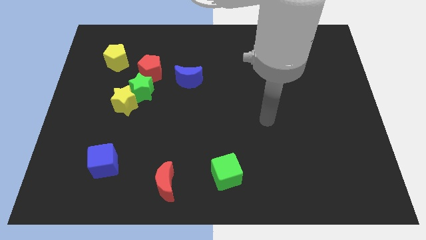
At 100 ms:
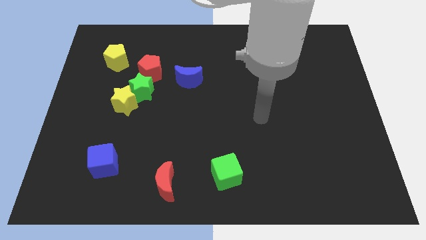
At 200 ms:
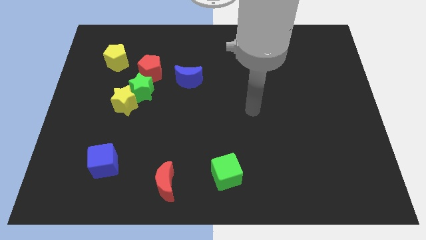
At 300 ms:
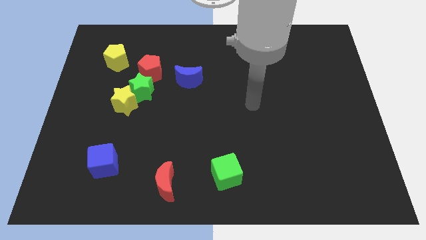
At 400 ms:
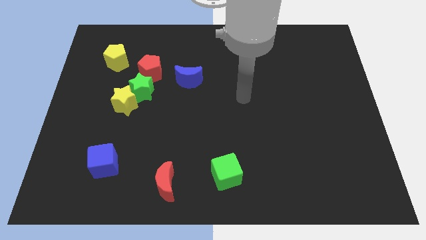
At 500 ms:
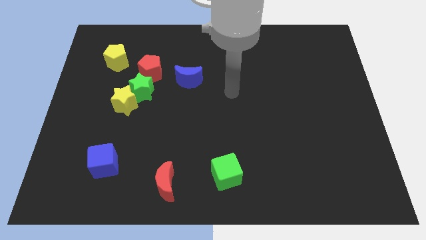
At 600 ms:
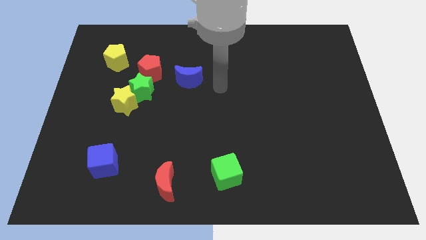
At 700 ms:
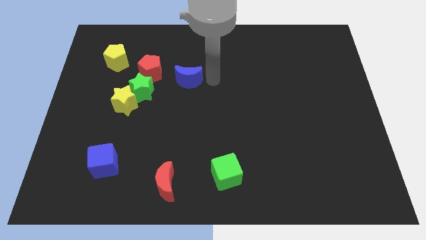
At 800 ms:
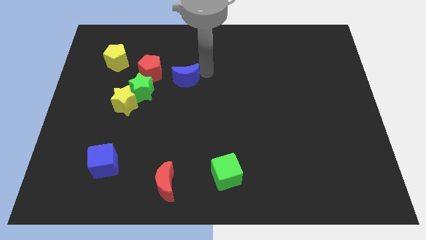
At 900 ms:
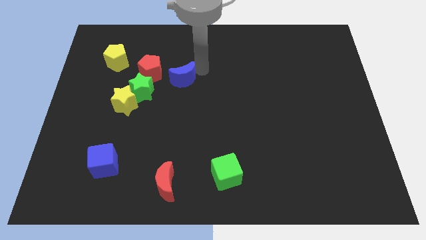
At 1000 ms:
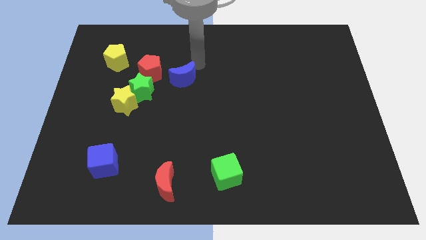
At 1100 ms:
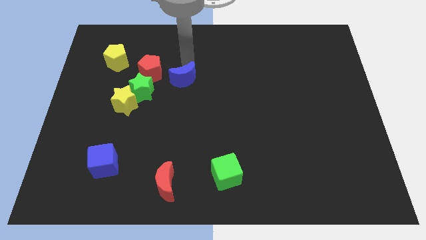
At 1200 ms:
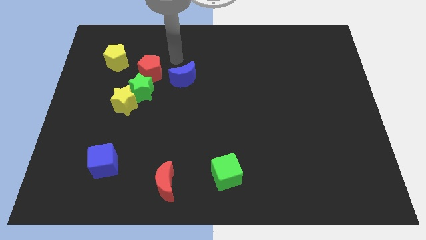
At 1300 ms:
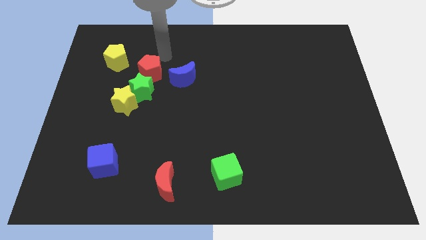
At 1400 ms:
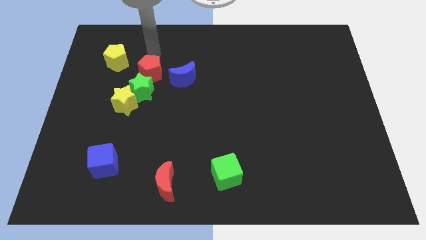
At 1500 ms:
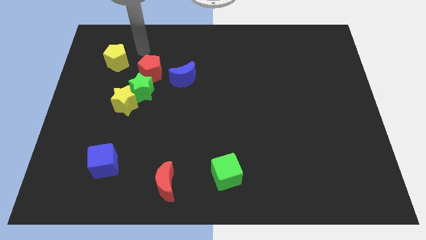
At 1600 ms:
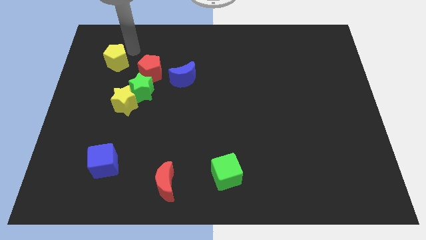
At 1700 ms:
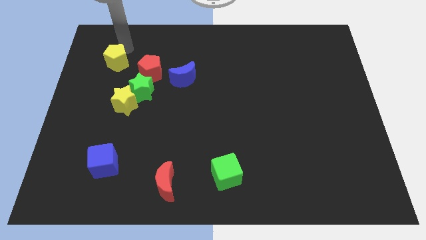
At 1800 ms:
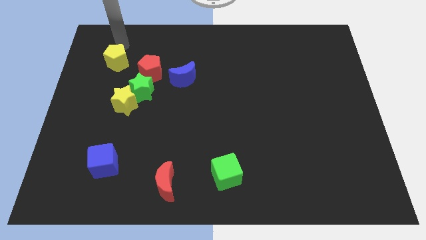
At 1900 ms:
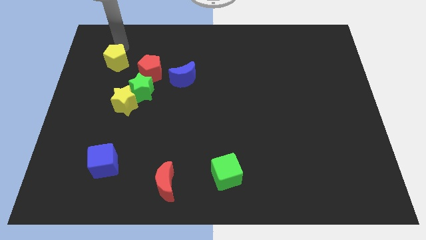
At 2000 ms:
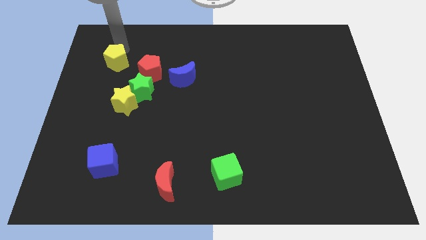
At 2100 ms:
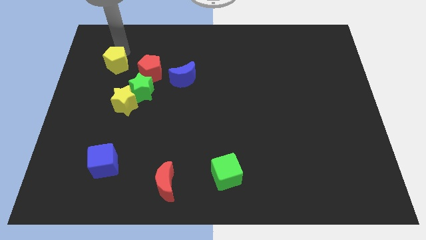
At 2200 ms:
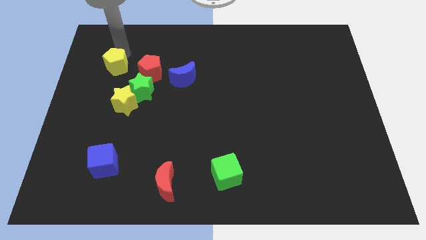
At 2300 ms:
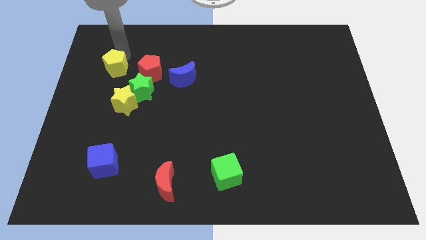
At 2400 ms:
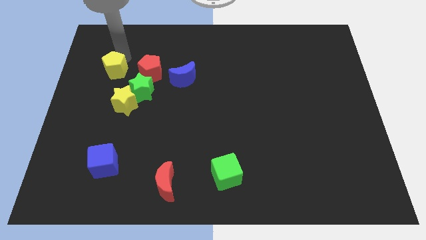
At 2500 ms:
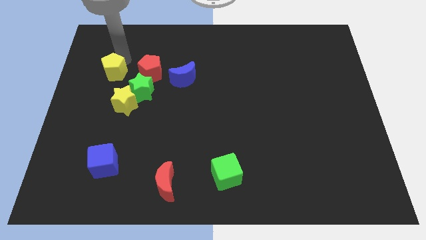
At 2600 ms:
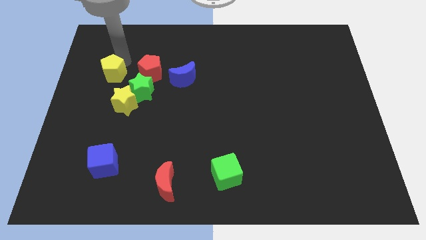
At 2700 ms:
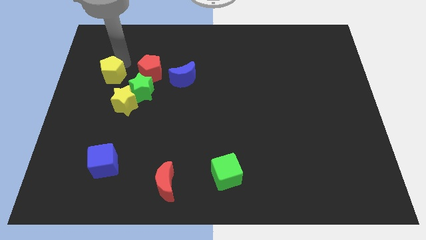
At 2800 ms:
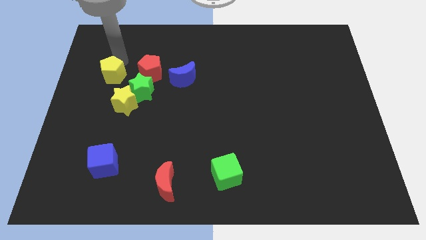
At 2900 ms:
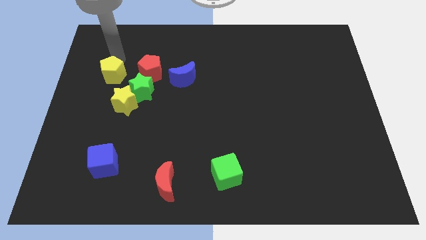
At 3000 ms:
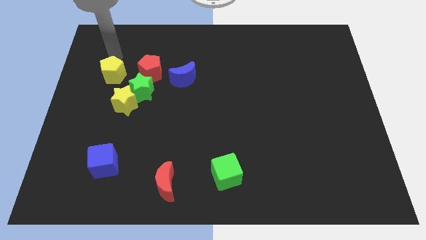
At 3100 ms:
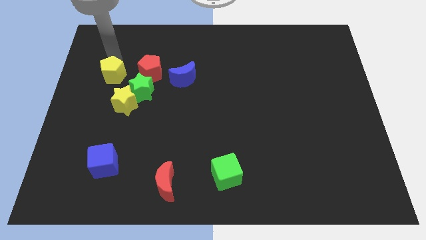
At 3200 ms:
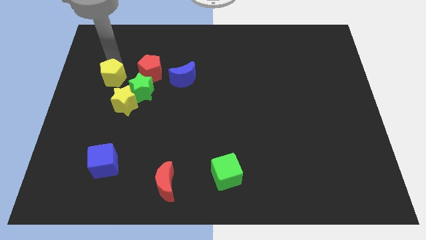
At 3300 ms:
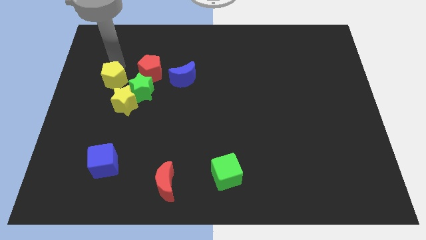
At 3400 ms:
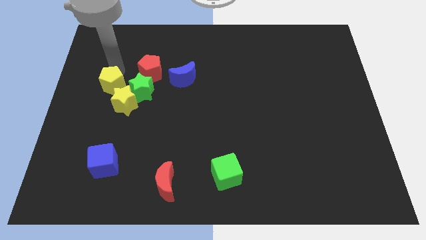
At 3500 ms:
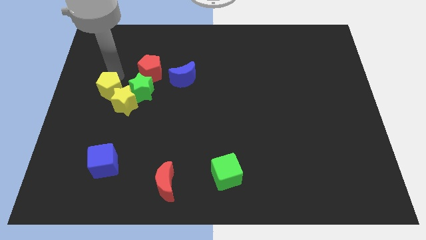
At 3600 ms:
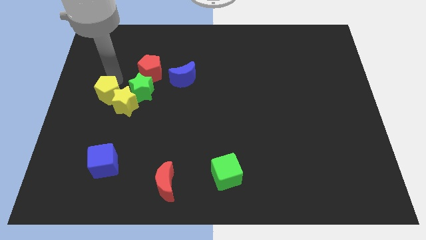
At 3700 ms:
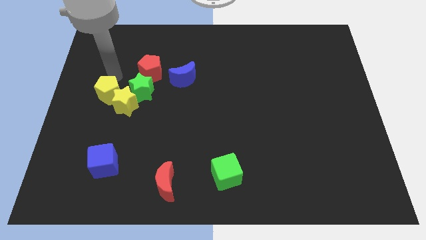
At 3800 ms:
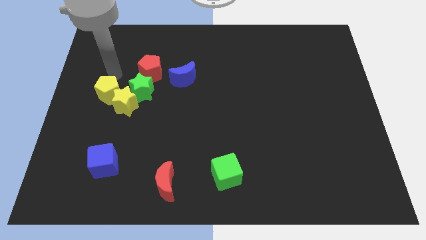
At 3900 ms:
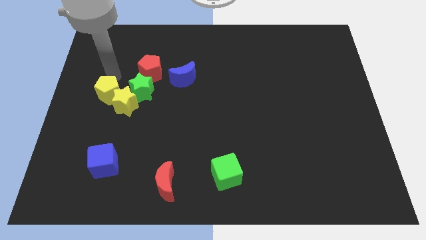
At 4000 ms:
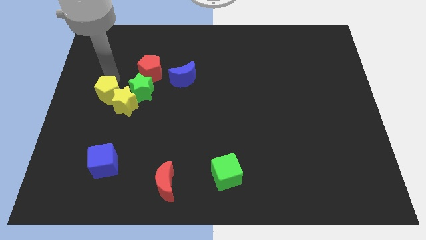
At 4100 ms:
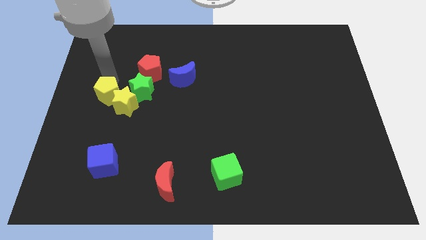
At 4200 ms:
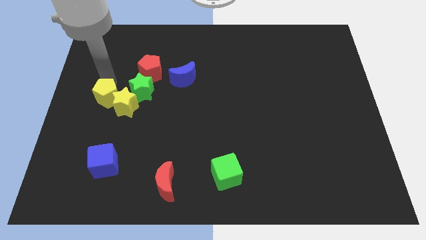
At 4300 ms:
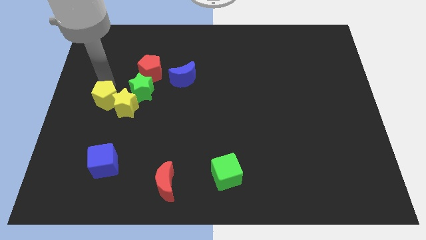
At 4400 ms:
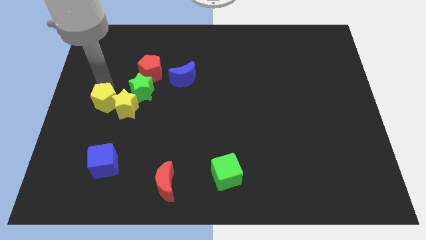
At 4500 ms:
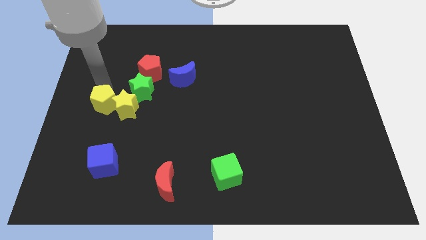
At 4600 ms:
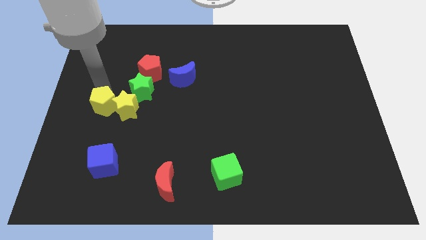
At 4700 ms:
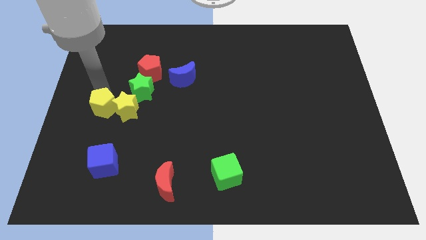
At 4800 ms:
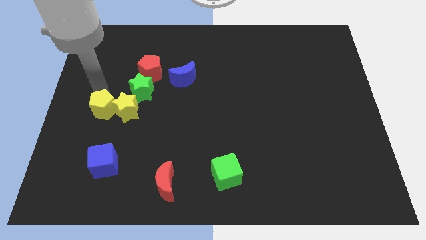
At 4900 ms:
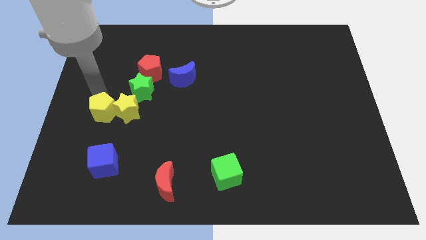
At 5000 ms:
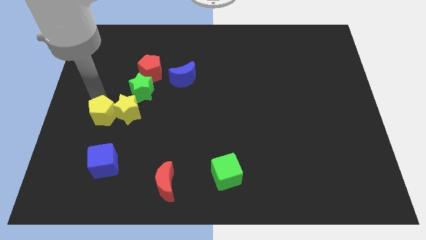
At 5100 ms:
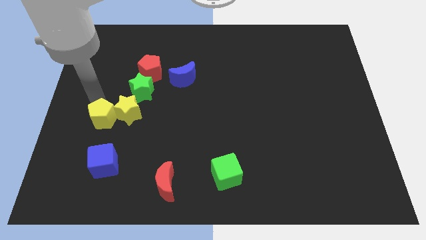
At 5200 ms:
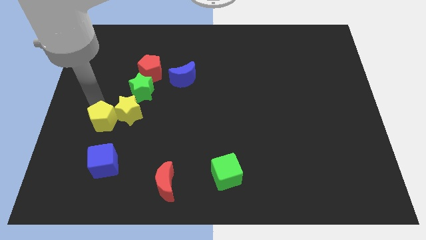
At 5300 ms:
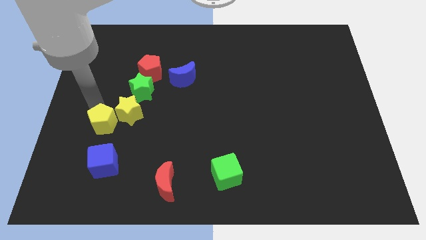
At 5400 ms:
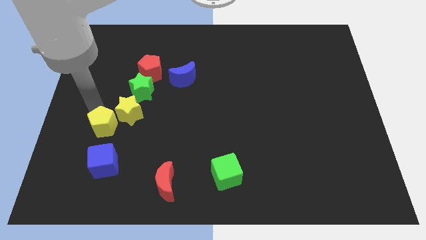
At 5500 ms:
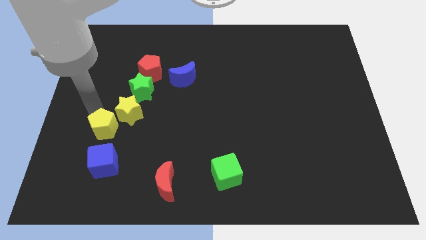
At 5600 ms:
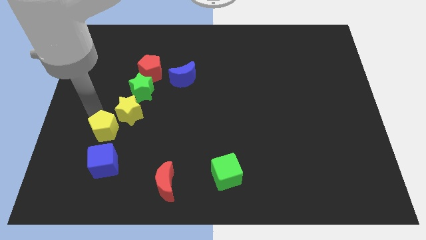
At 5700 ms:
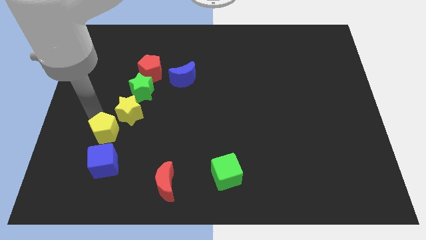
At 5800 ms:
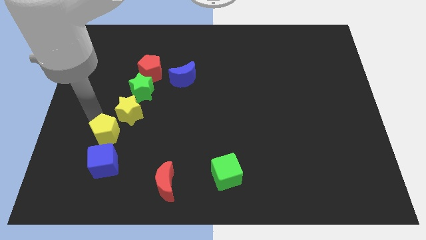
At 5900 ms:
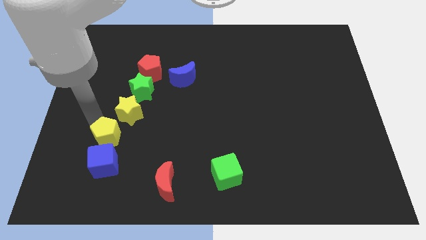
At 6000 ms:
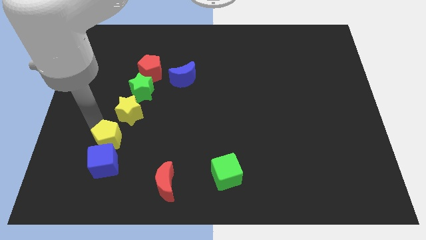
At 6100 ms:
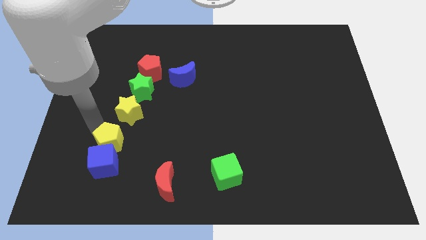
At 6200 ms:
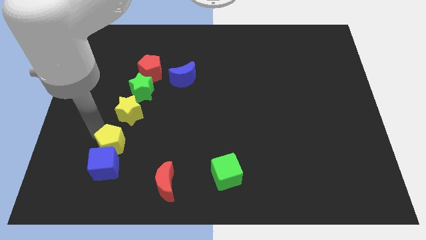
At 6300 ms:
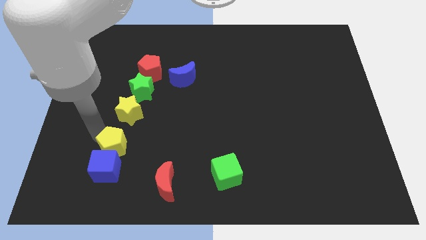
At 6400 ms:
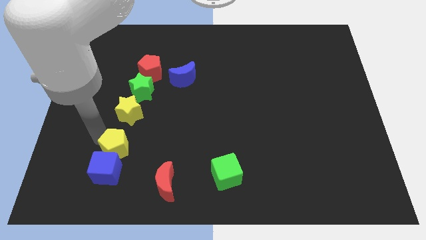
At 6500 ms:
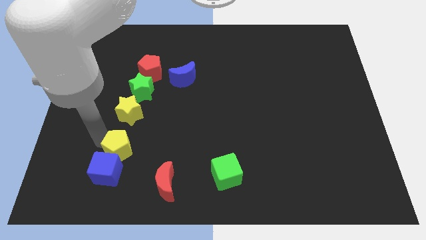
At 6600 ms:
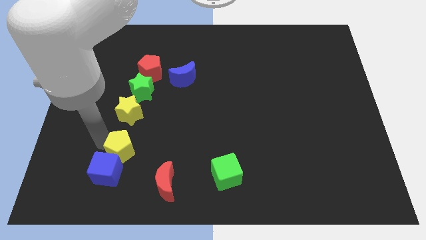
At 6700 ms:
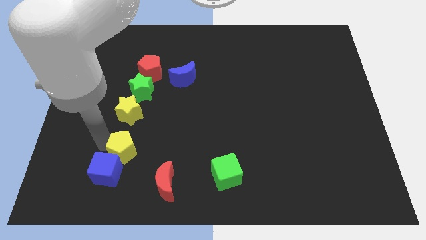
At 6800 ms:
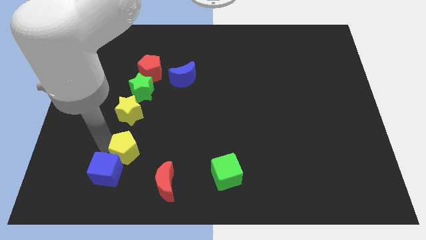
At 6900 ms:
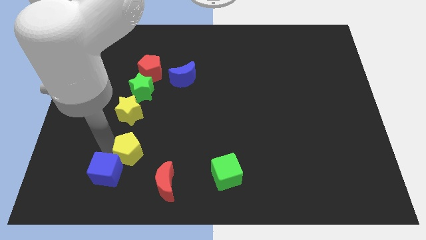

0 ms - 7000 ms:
put the yellow pentagon to the right of the blue cube
